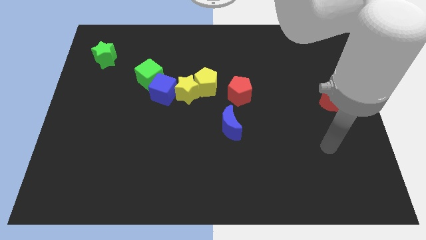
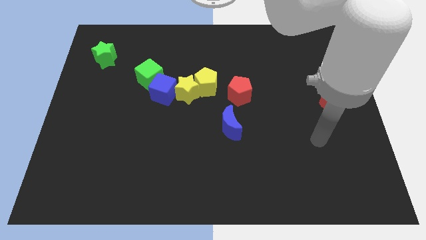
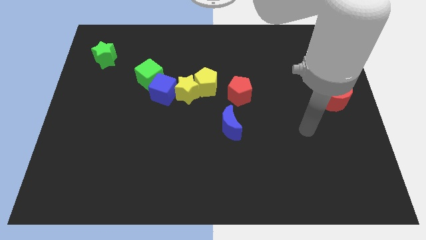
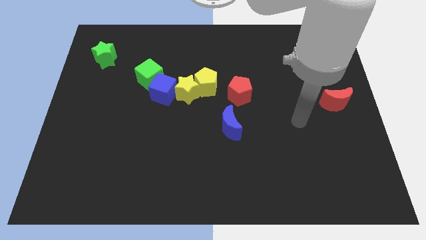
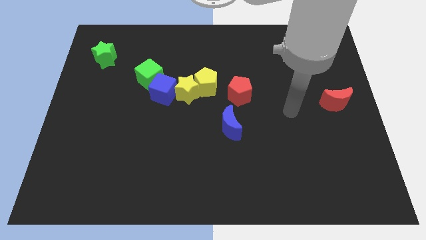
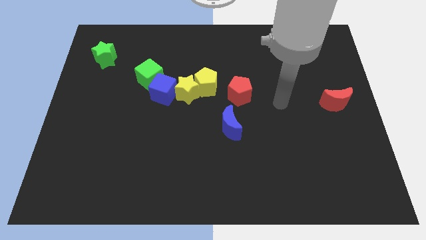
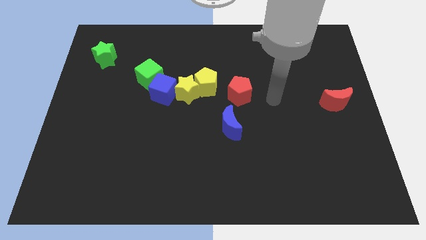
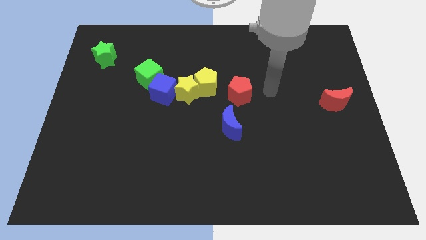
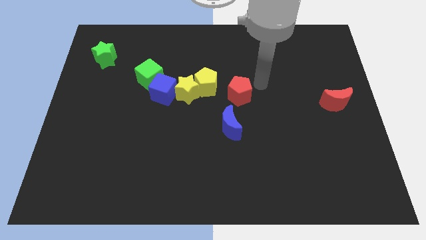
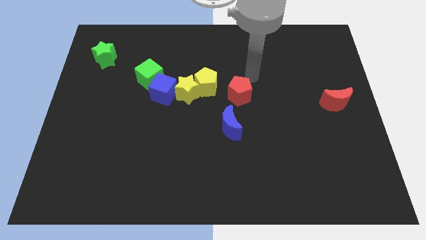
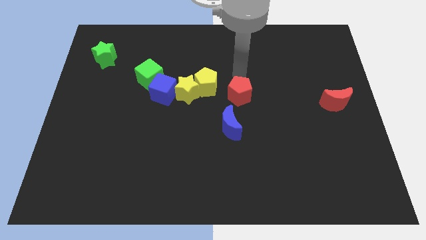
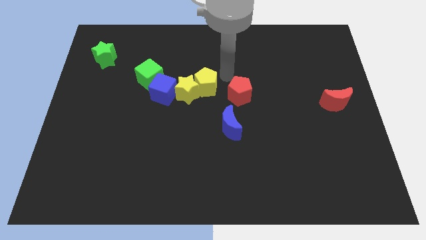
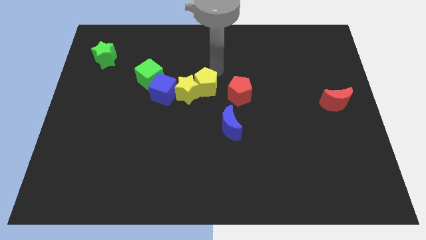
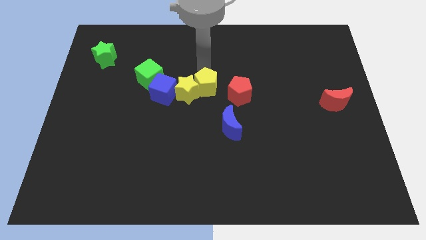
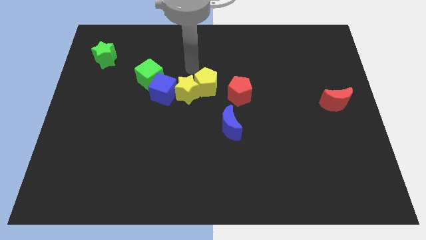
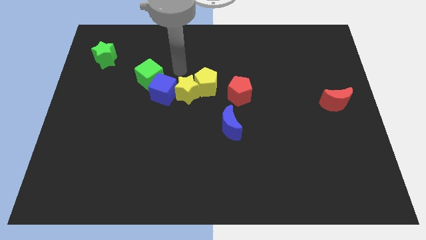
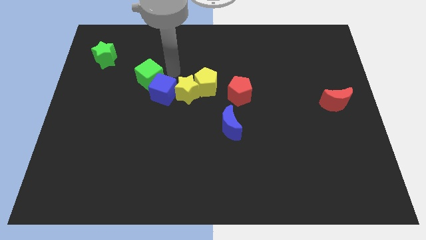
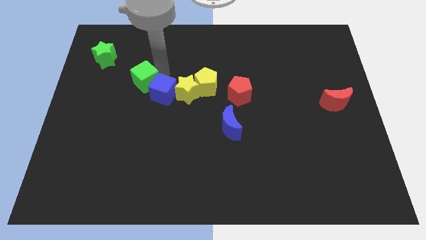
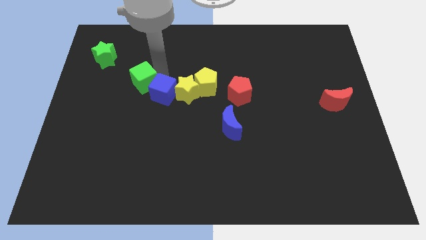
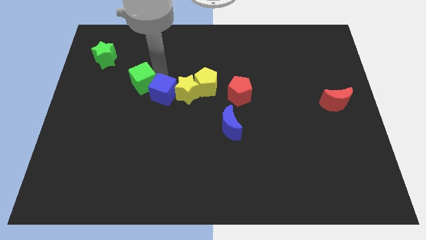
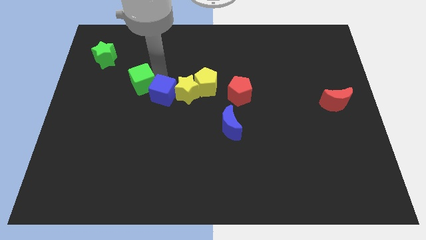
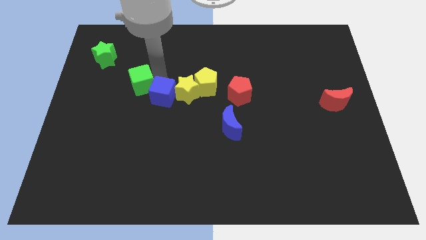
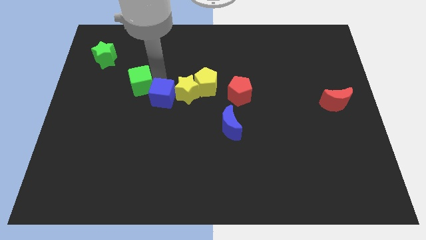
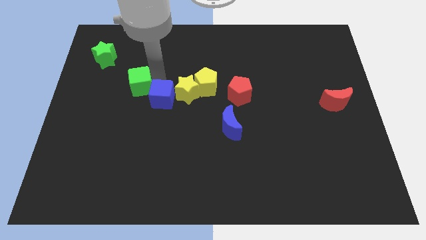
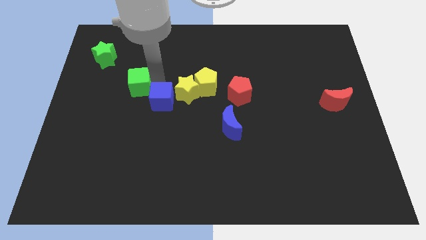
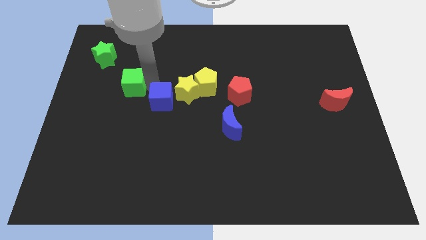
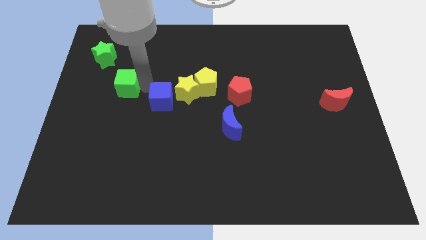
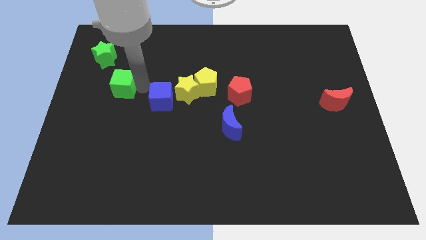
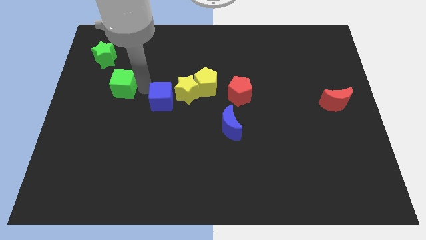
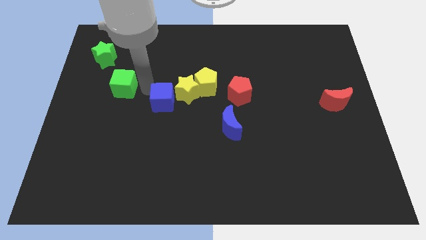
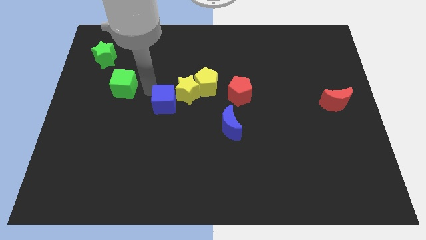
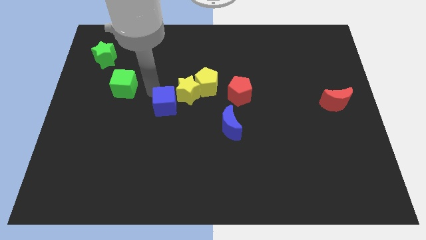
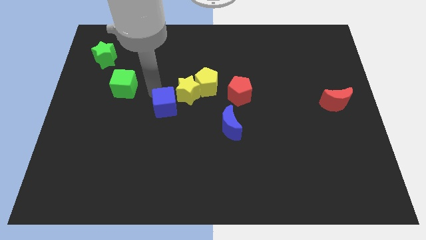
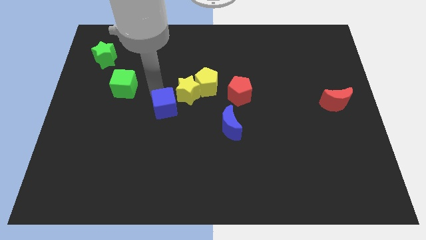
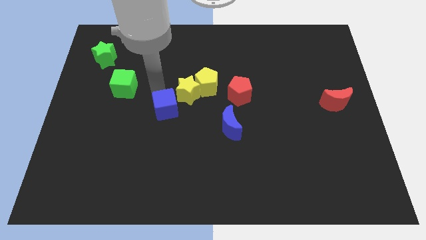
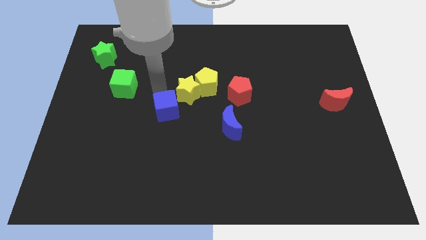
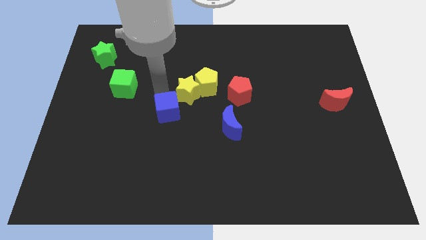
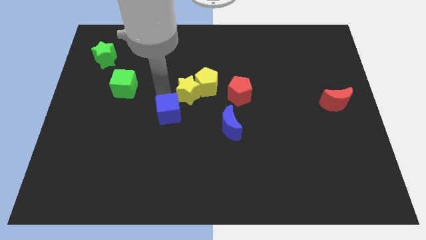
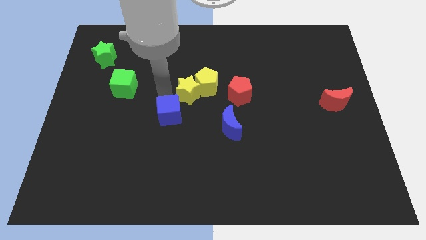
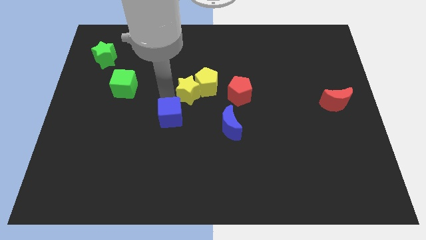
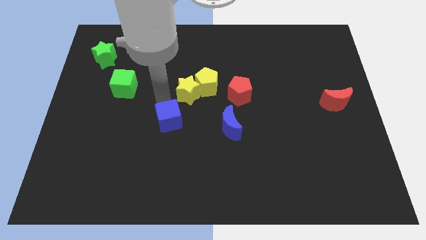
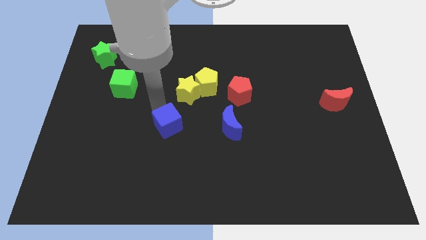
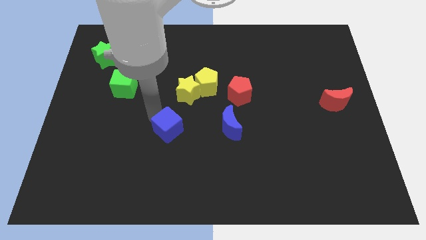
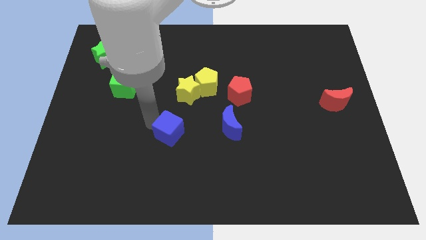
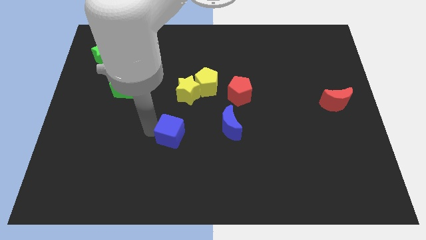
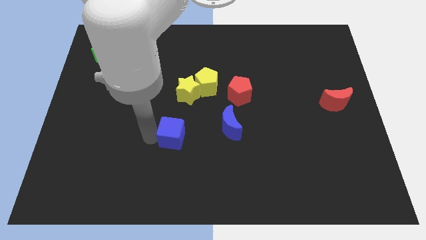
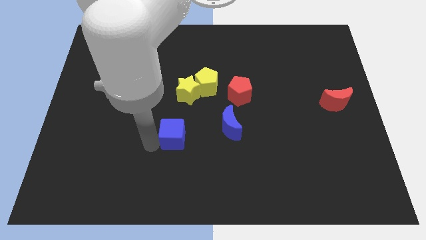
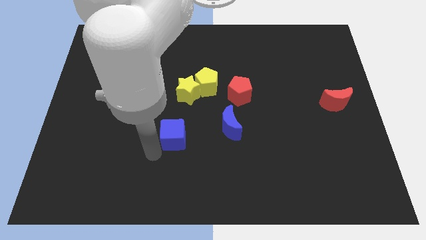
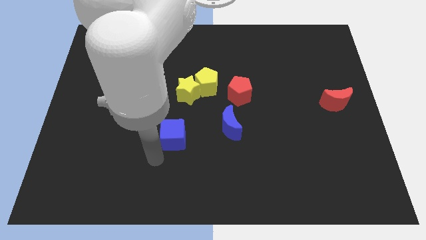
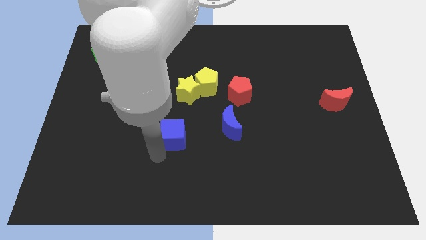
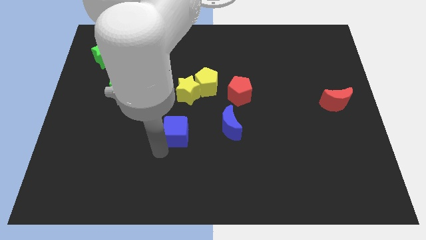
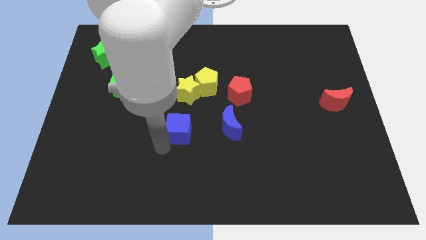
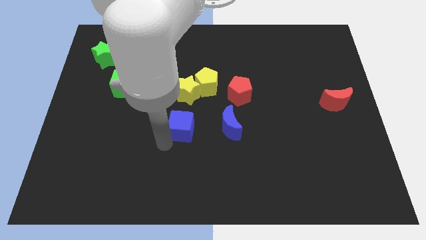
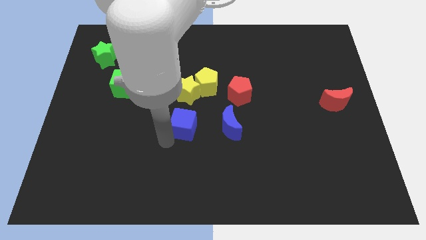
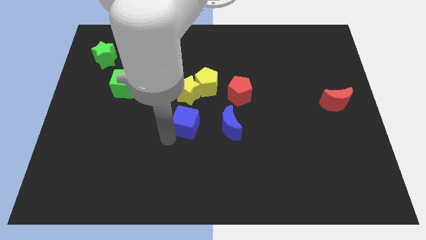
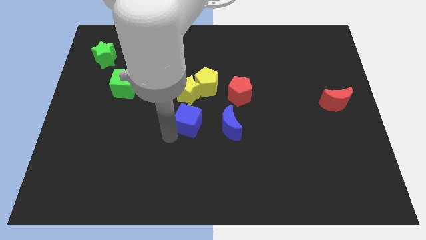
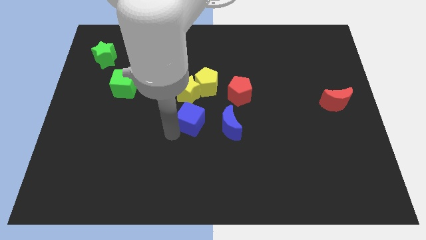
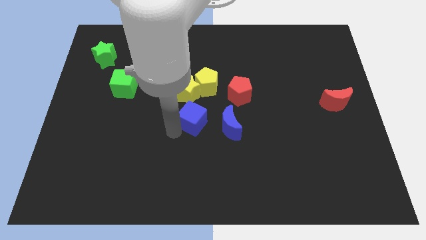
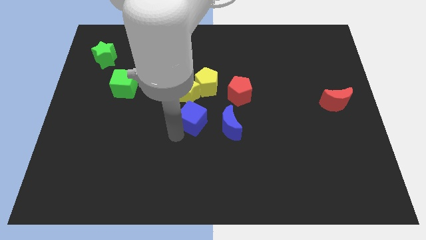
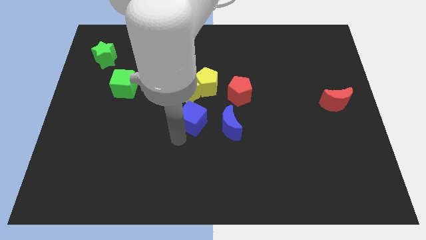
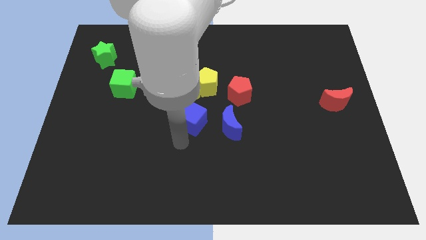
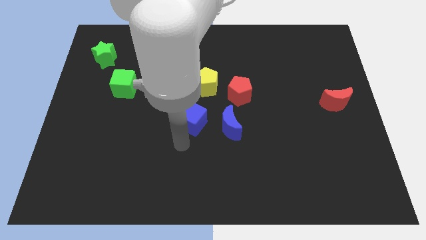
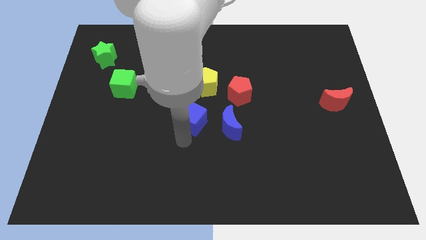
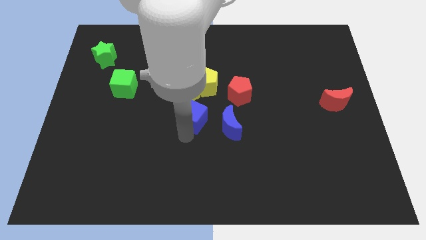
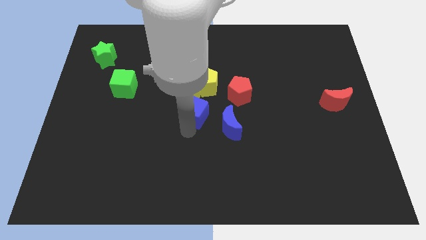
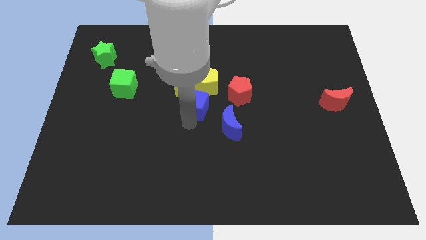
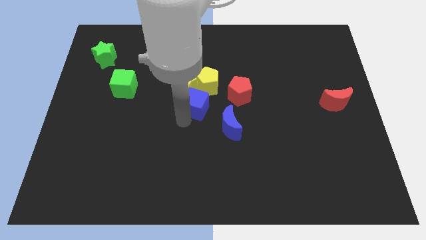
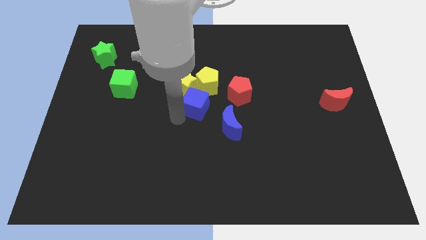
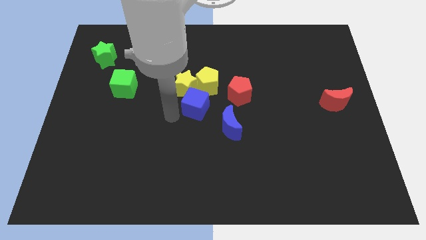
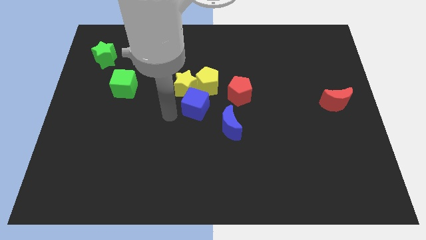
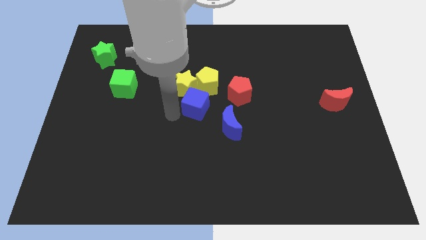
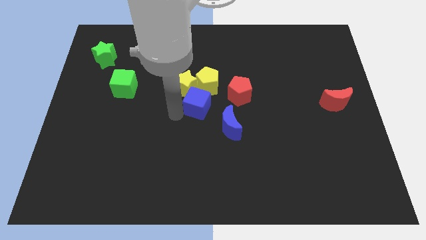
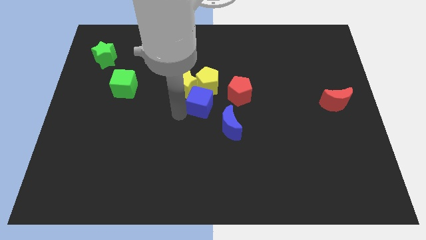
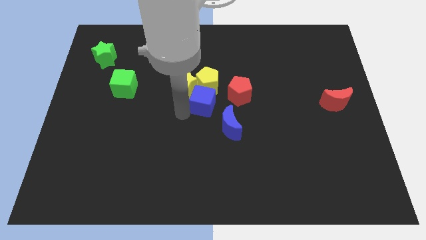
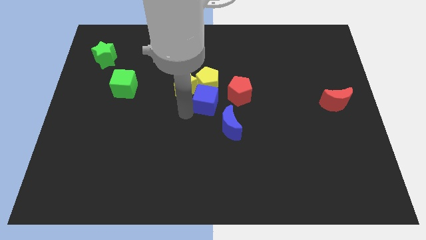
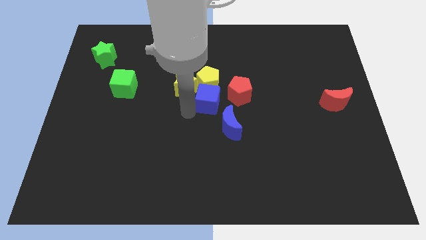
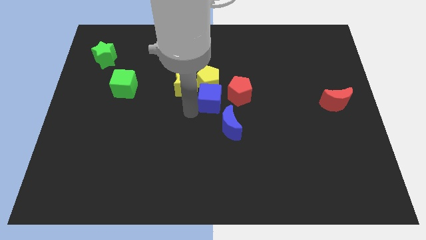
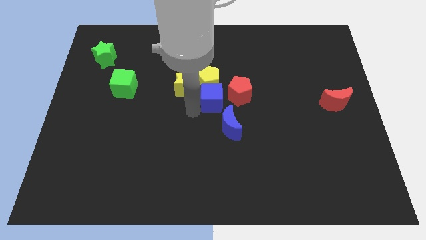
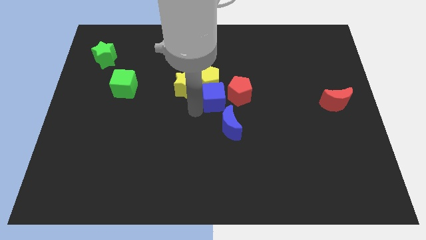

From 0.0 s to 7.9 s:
push the blue cube to the red pentagon

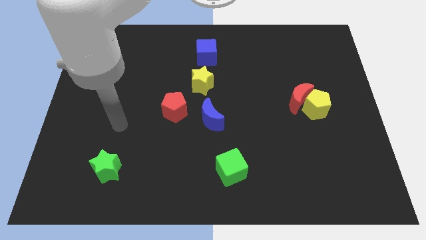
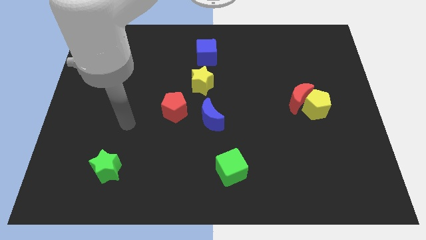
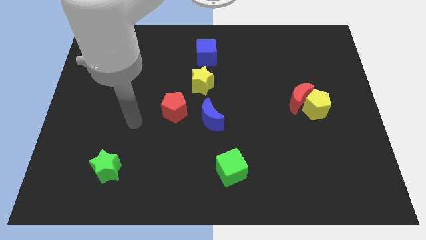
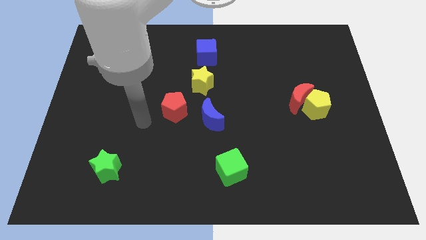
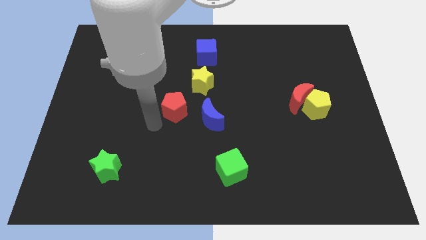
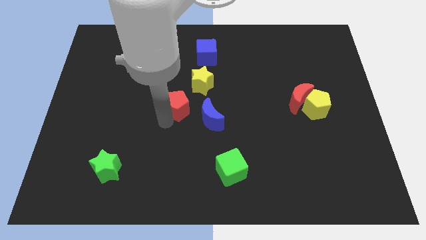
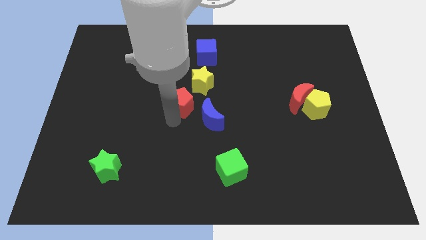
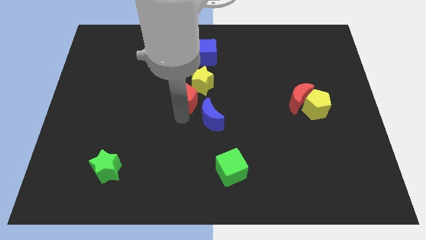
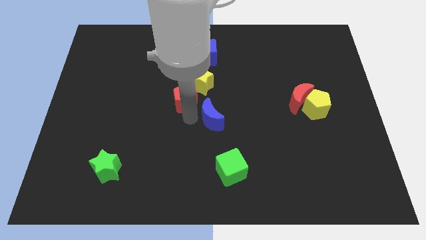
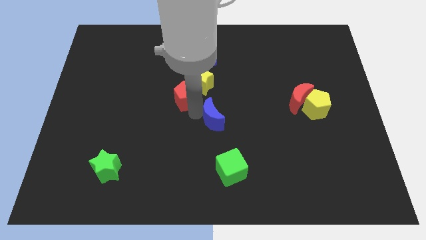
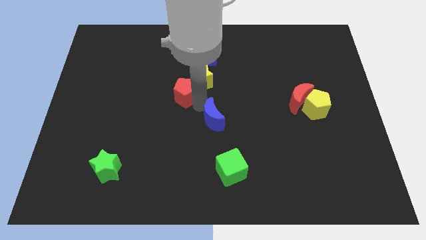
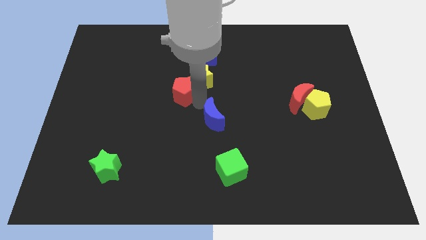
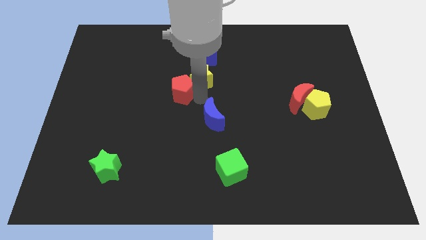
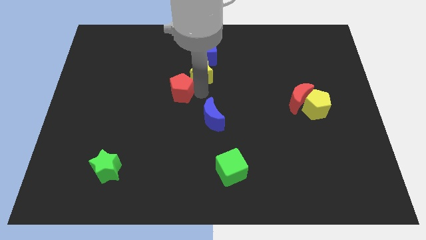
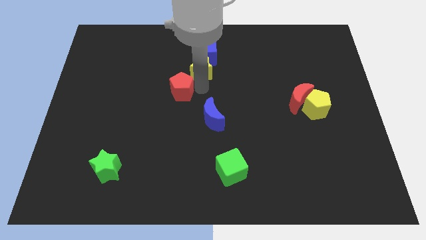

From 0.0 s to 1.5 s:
move the yellow star to the blue cube
